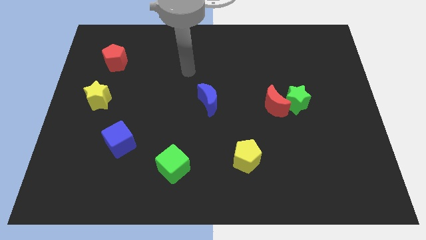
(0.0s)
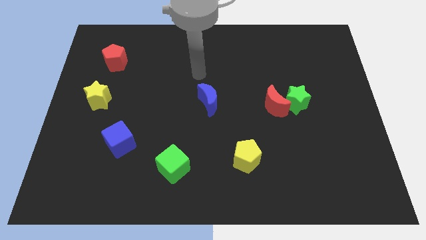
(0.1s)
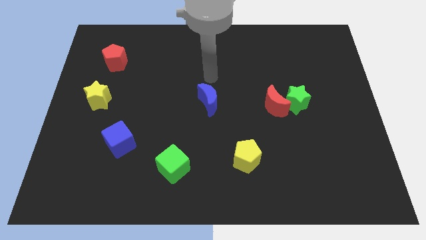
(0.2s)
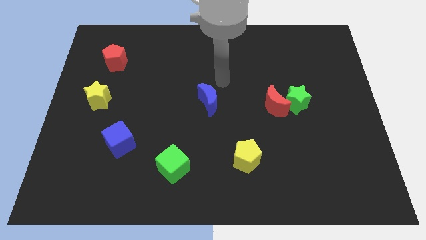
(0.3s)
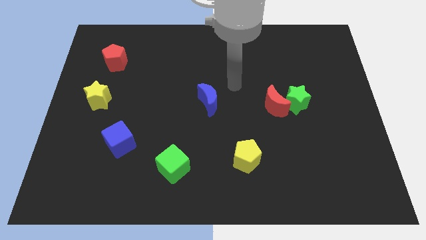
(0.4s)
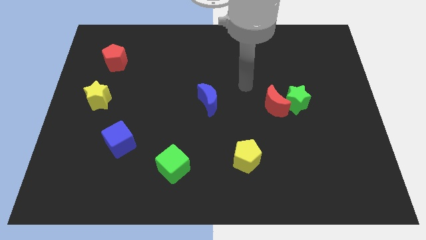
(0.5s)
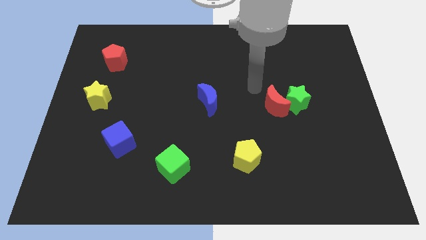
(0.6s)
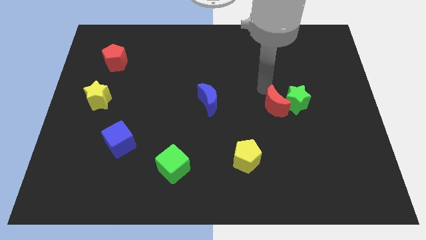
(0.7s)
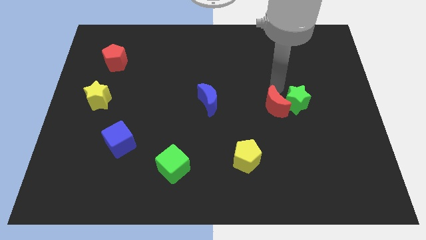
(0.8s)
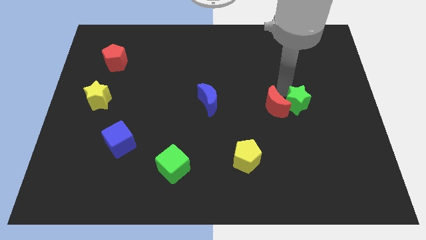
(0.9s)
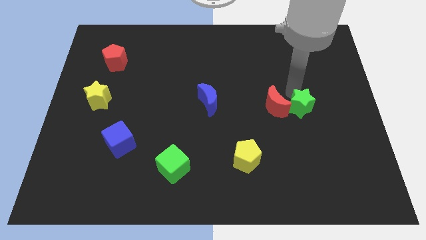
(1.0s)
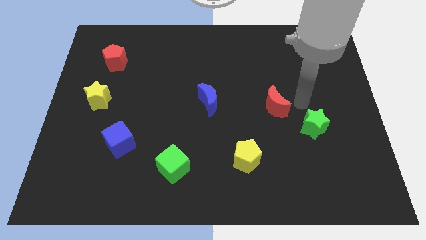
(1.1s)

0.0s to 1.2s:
separate the red moon from the green star

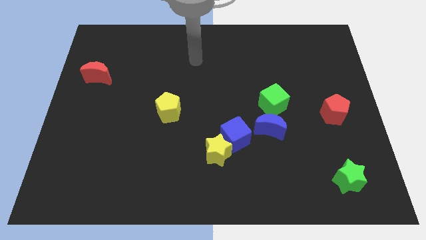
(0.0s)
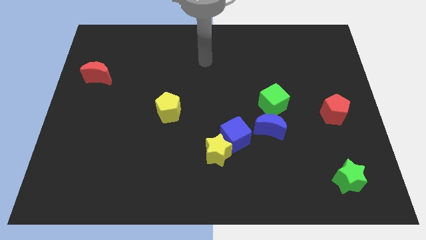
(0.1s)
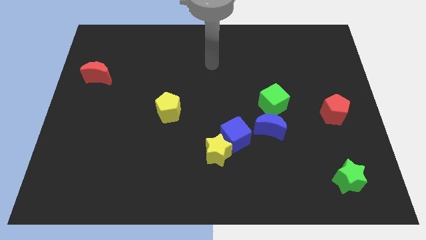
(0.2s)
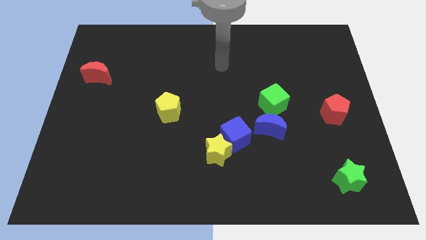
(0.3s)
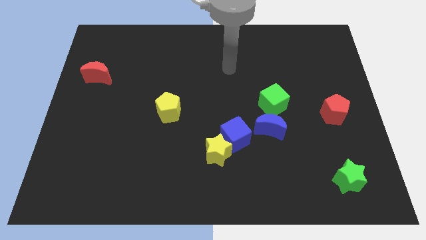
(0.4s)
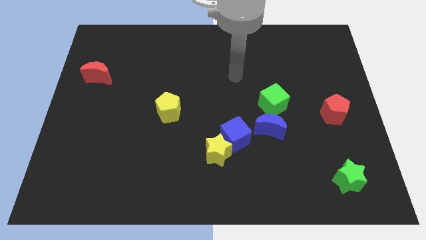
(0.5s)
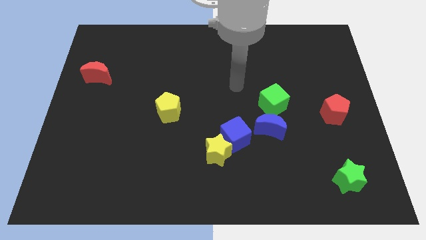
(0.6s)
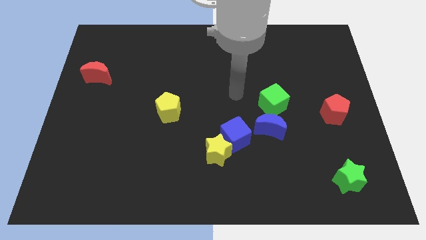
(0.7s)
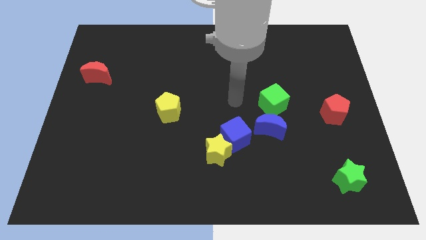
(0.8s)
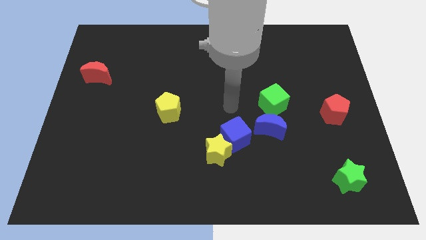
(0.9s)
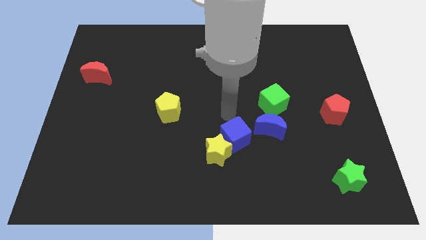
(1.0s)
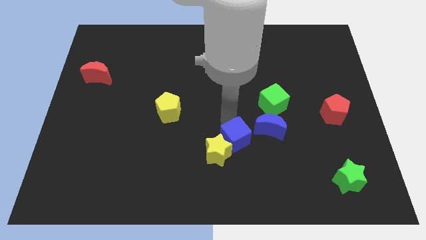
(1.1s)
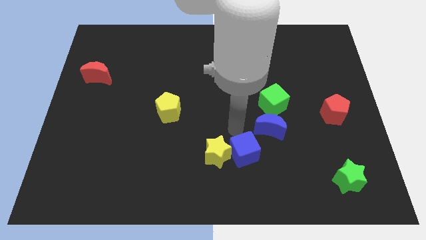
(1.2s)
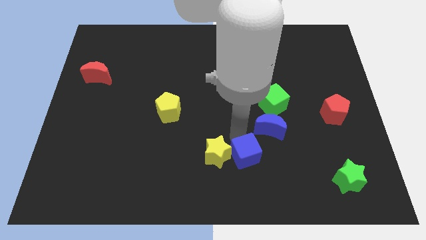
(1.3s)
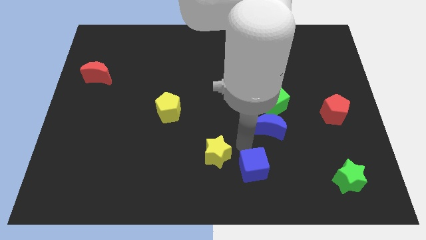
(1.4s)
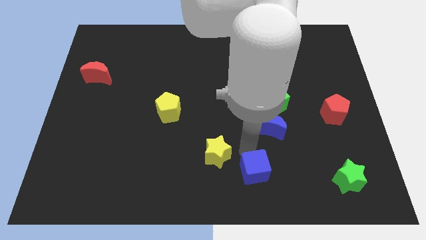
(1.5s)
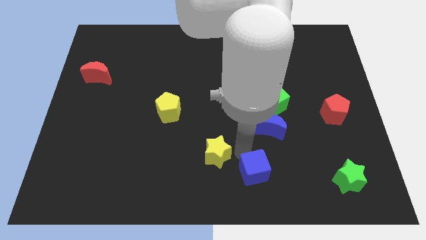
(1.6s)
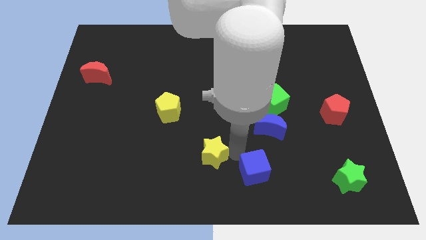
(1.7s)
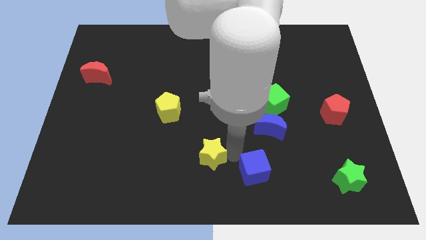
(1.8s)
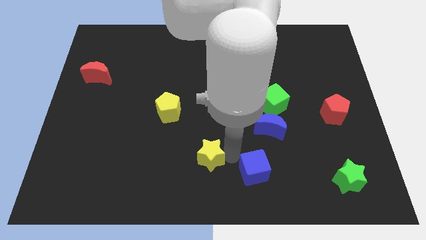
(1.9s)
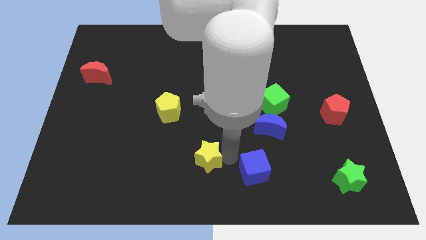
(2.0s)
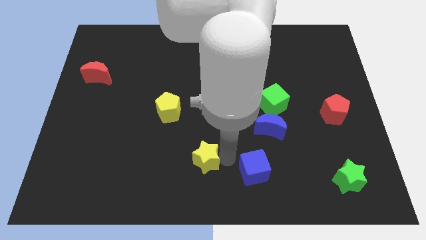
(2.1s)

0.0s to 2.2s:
pull the yellow star apart from the blue cube

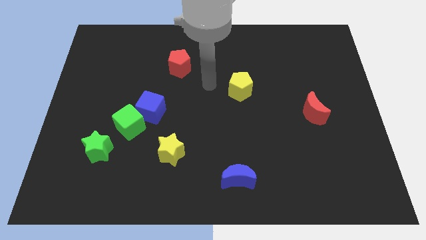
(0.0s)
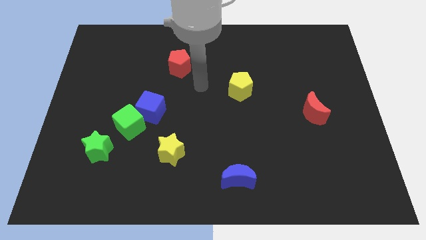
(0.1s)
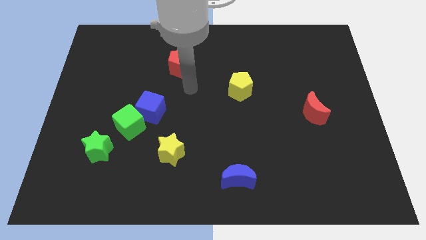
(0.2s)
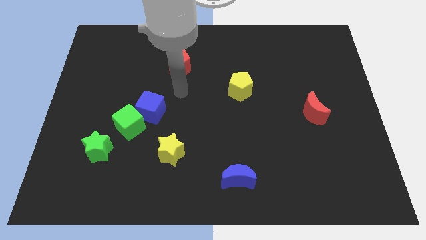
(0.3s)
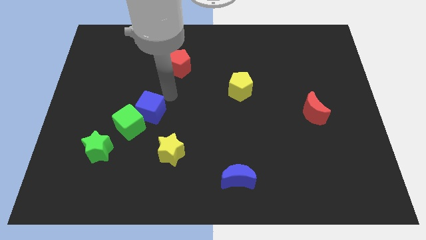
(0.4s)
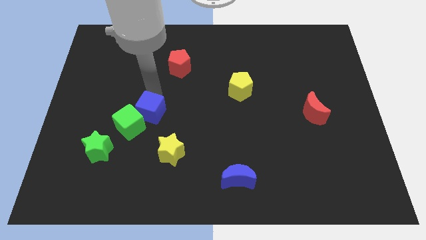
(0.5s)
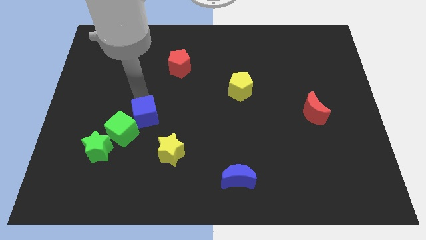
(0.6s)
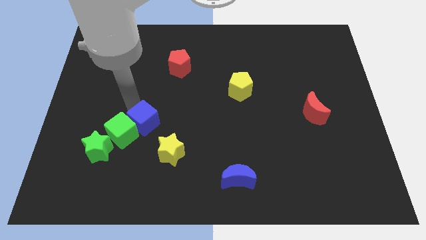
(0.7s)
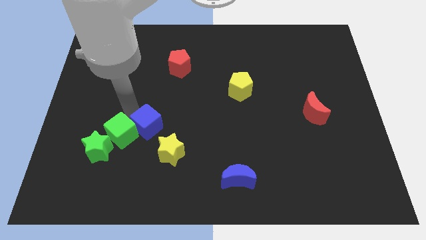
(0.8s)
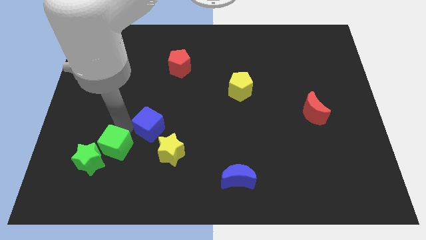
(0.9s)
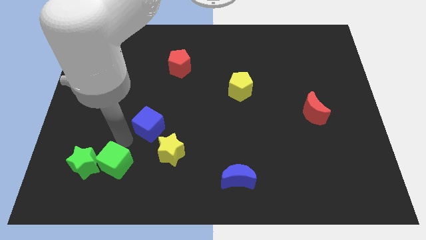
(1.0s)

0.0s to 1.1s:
move the blue cube away from the green cube

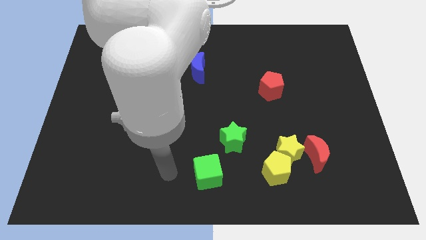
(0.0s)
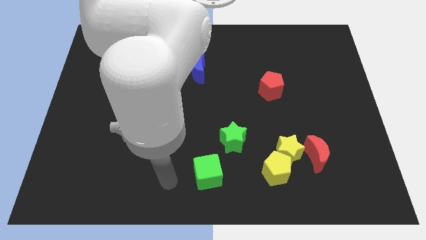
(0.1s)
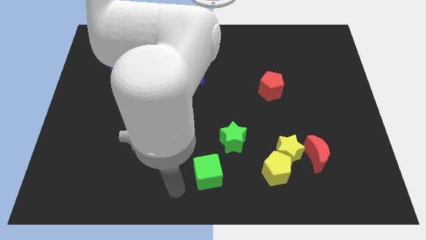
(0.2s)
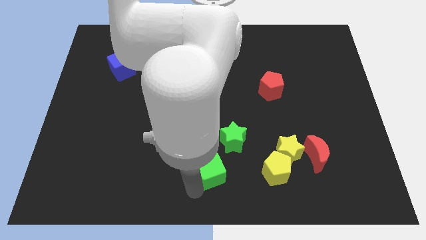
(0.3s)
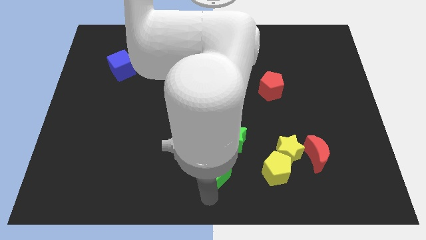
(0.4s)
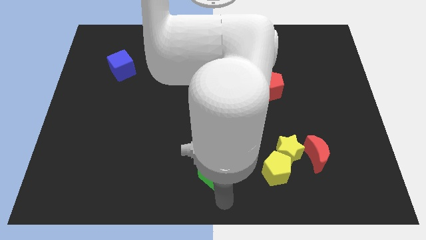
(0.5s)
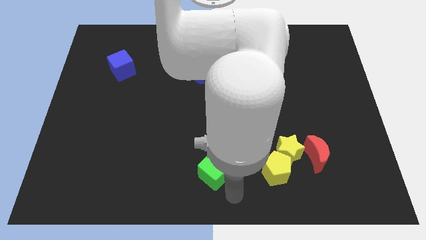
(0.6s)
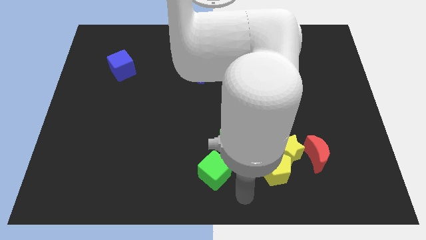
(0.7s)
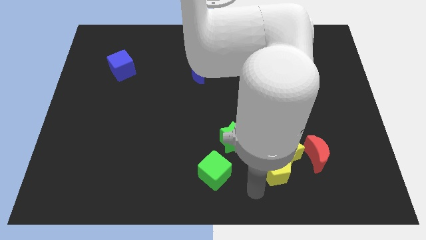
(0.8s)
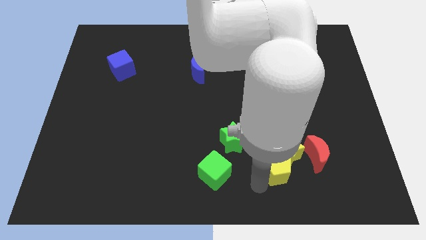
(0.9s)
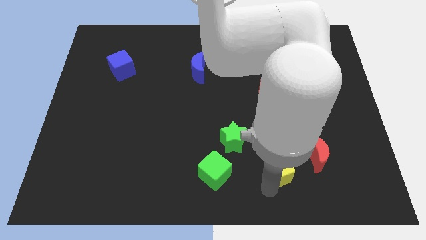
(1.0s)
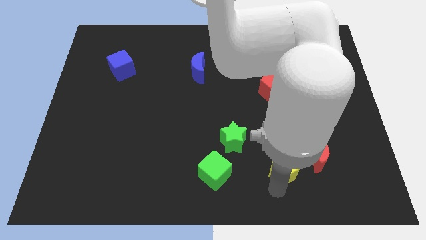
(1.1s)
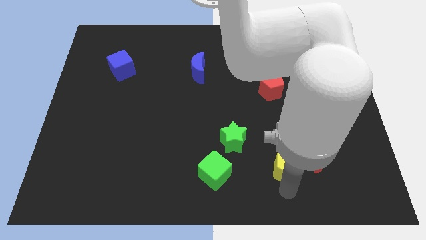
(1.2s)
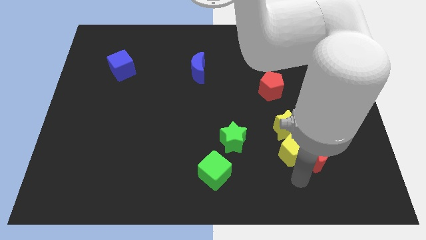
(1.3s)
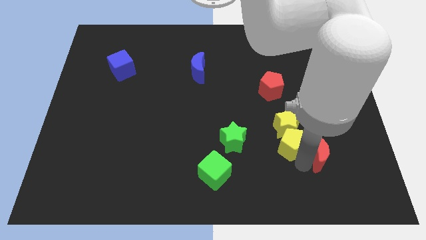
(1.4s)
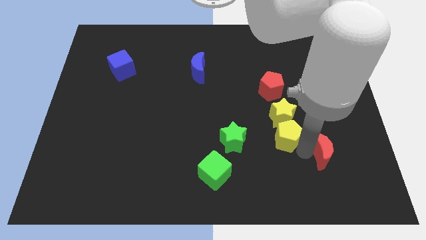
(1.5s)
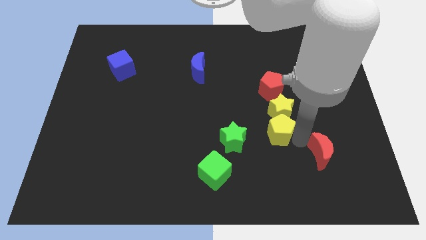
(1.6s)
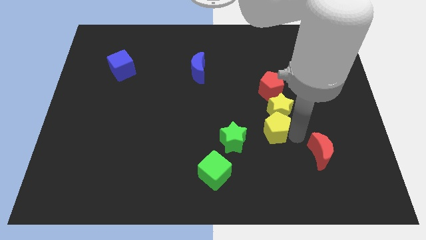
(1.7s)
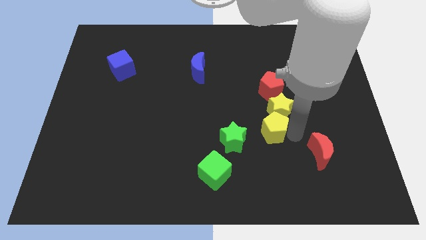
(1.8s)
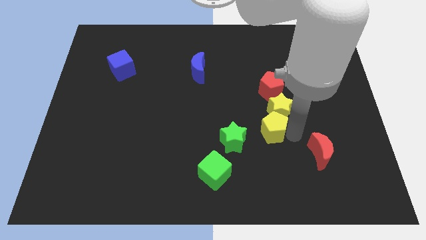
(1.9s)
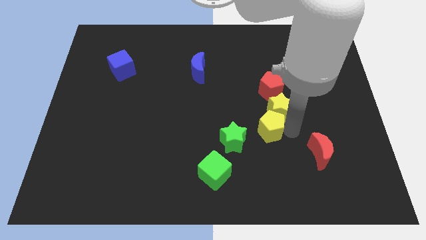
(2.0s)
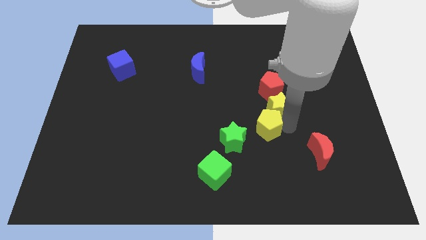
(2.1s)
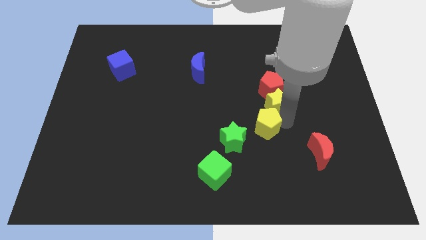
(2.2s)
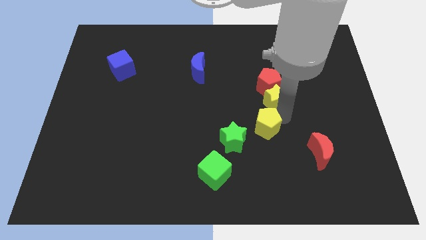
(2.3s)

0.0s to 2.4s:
move the yellow star away from the yellow pentagon and red moon

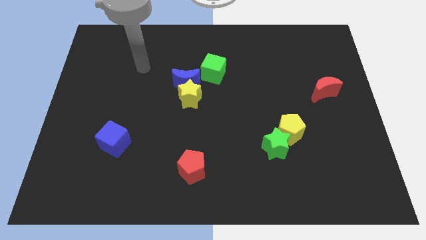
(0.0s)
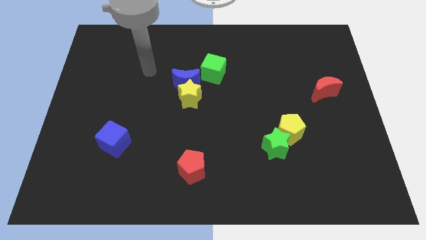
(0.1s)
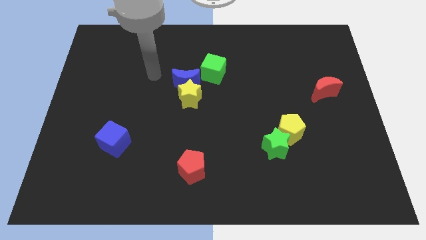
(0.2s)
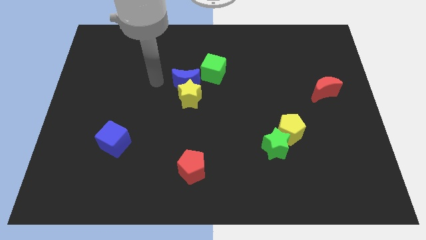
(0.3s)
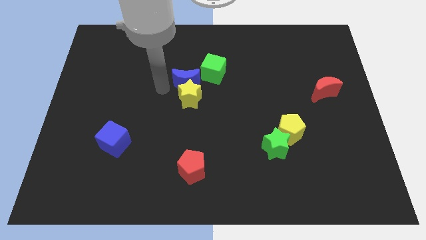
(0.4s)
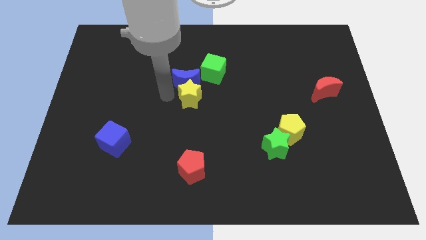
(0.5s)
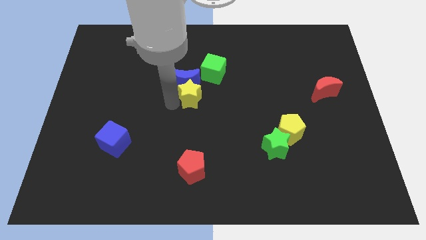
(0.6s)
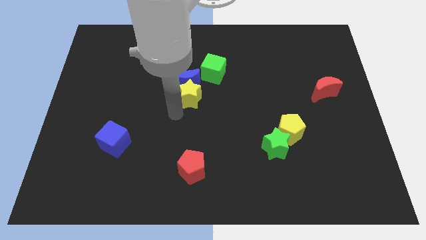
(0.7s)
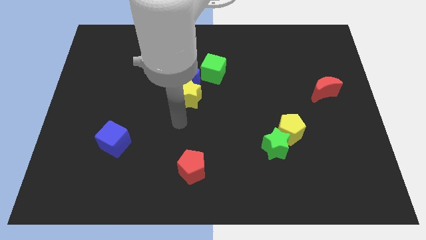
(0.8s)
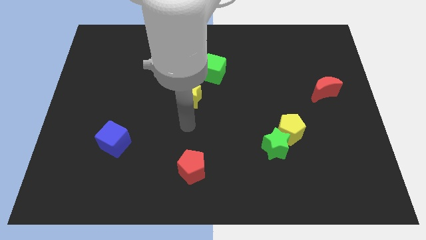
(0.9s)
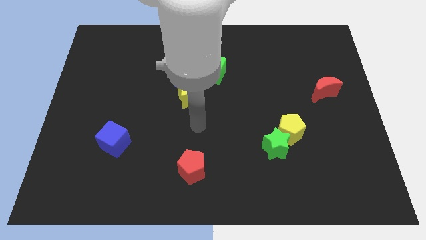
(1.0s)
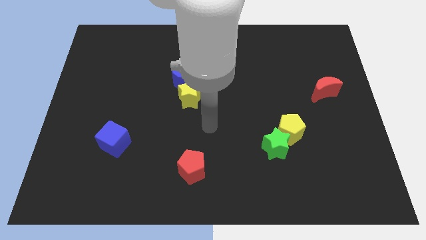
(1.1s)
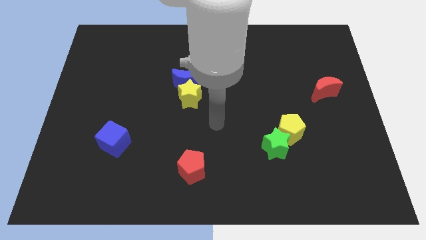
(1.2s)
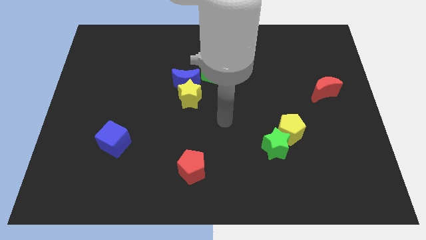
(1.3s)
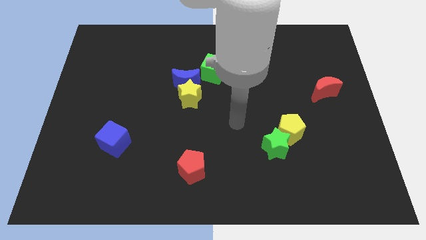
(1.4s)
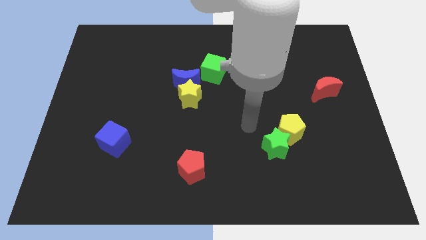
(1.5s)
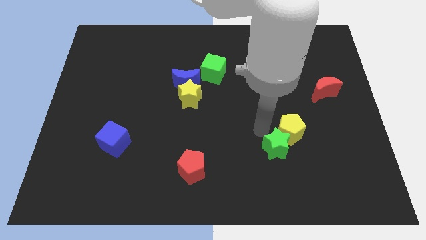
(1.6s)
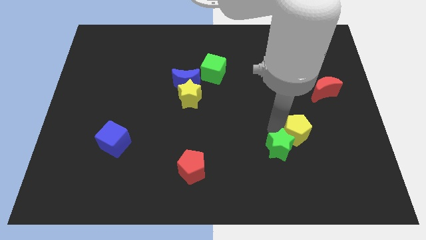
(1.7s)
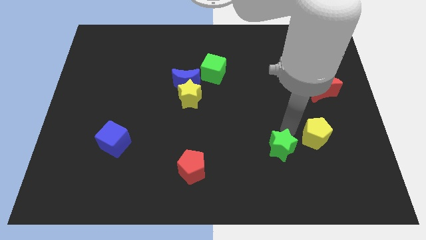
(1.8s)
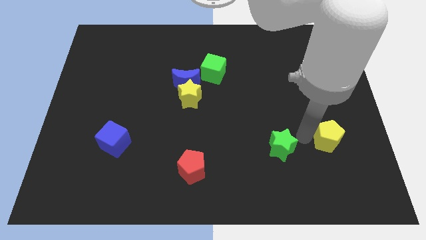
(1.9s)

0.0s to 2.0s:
pull the green star apart from the yellow pentagon

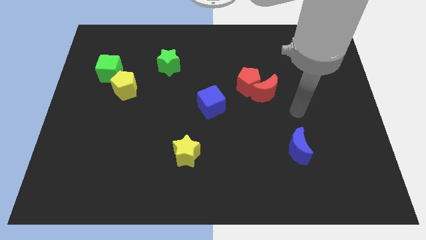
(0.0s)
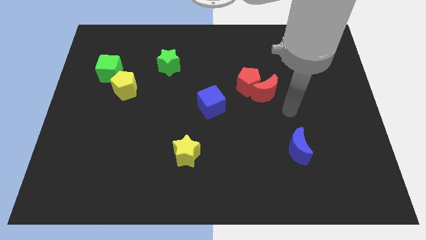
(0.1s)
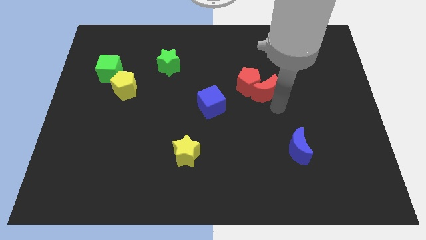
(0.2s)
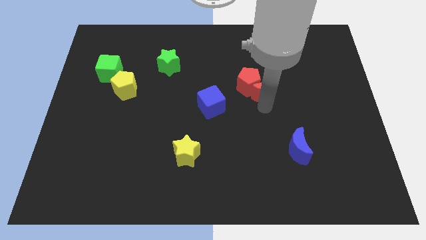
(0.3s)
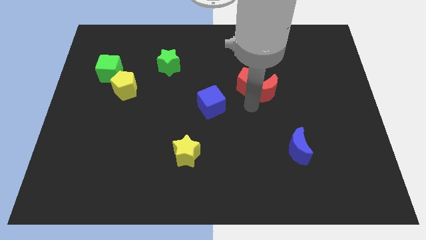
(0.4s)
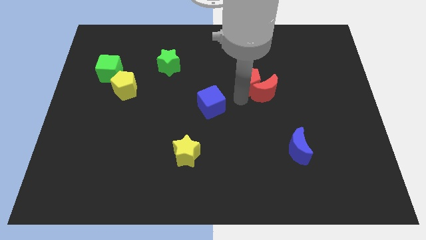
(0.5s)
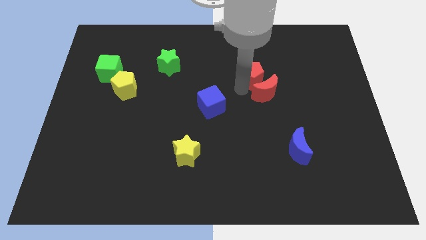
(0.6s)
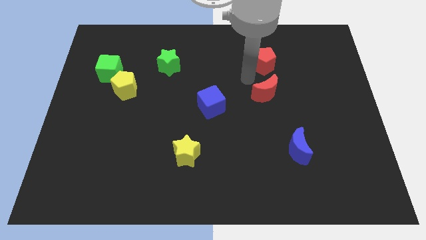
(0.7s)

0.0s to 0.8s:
separate the red moon from the red pentagon
